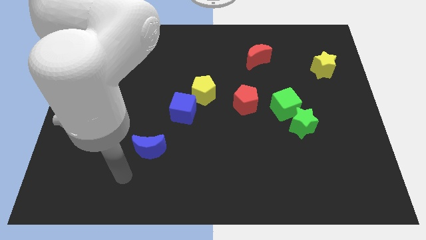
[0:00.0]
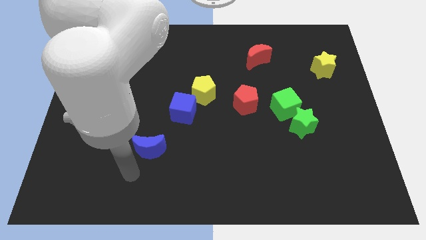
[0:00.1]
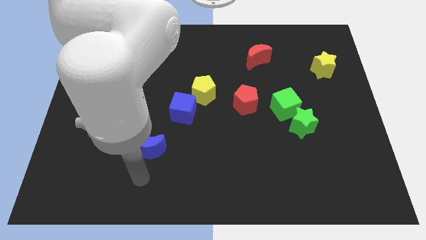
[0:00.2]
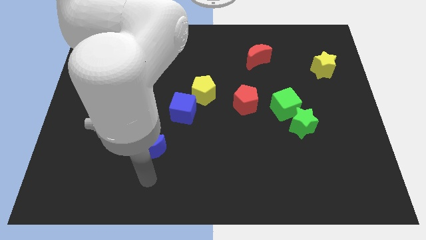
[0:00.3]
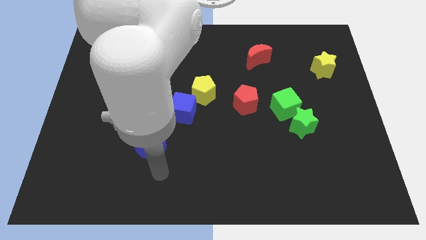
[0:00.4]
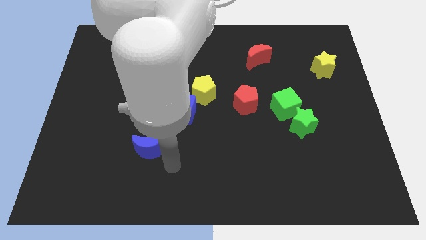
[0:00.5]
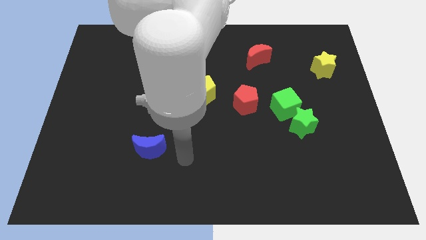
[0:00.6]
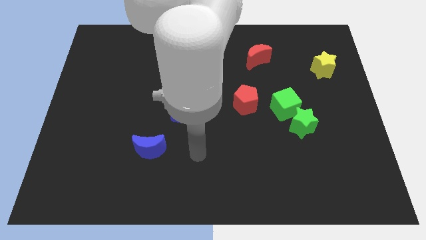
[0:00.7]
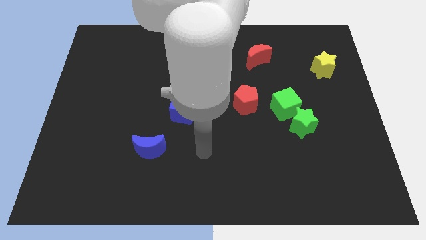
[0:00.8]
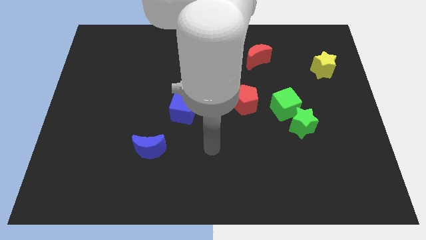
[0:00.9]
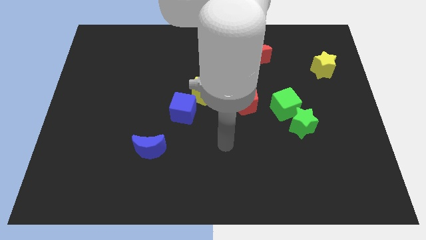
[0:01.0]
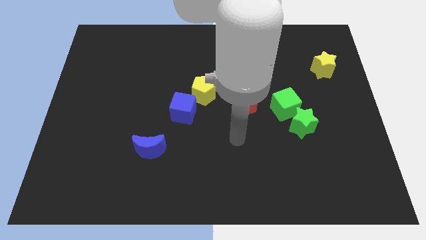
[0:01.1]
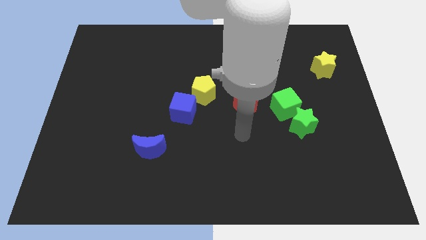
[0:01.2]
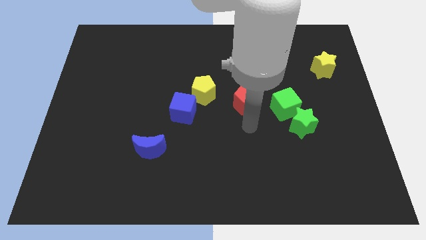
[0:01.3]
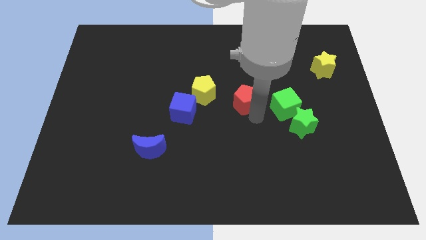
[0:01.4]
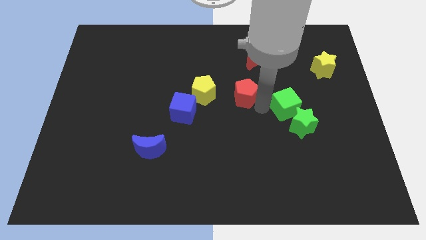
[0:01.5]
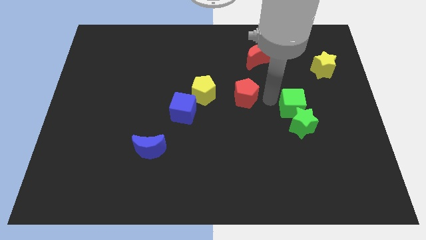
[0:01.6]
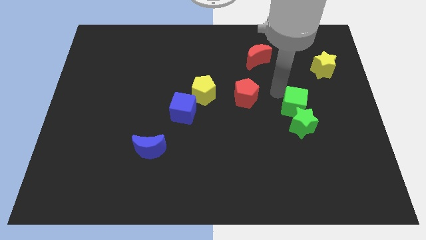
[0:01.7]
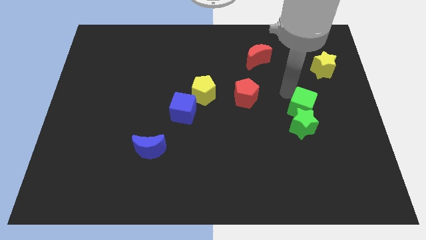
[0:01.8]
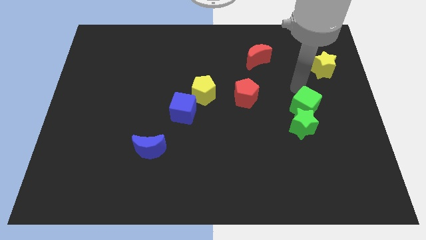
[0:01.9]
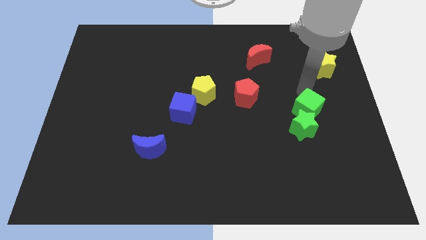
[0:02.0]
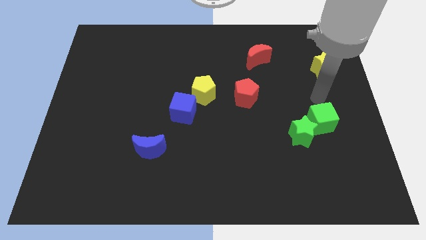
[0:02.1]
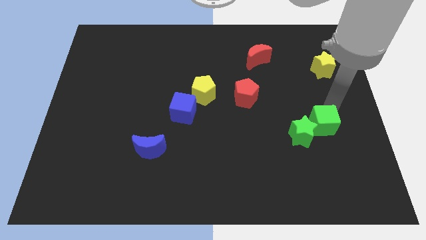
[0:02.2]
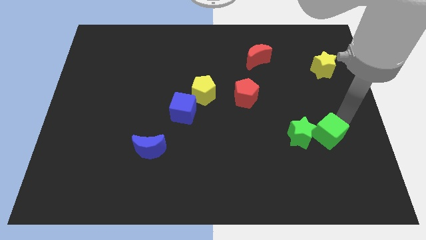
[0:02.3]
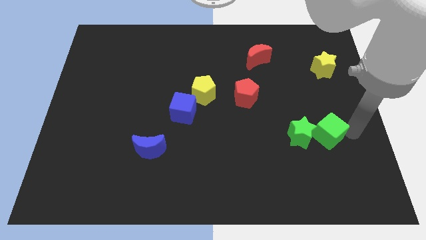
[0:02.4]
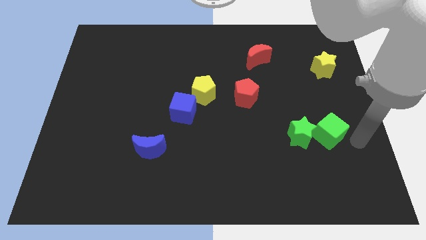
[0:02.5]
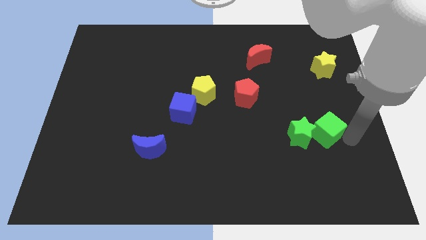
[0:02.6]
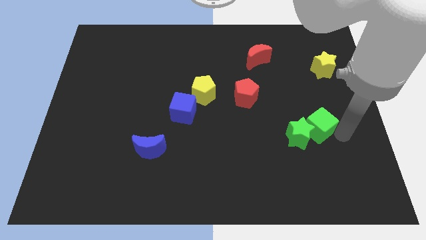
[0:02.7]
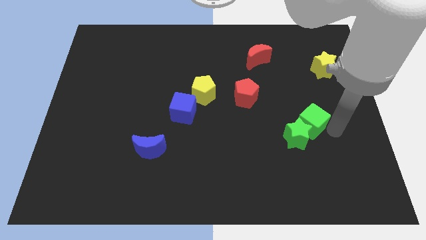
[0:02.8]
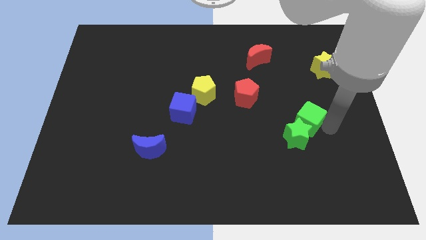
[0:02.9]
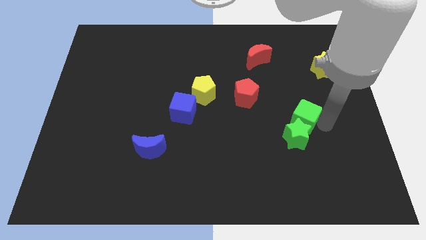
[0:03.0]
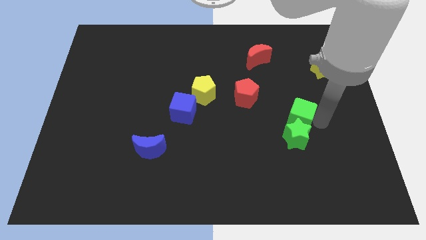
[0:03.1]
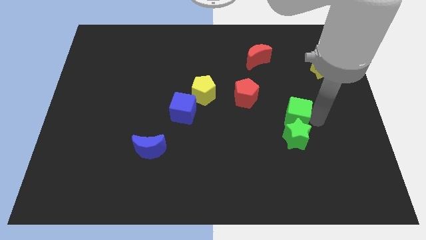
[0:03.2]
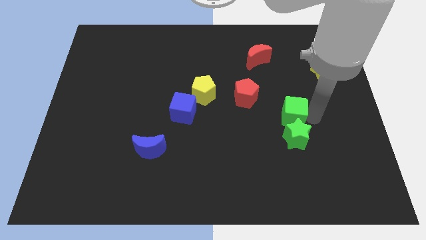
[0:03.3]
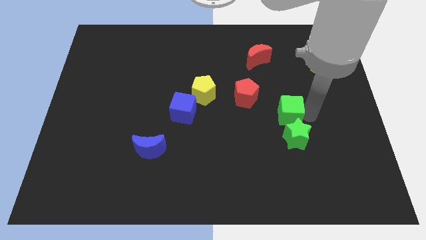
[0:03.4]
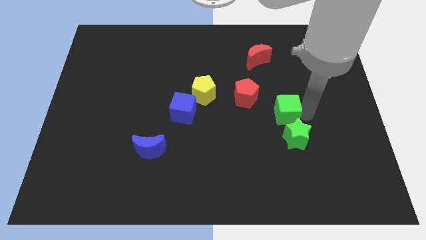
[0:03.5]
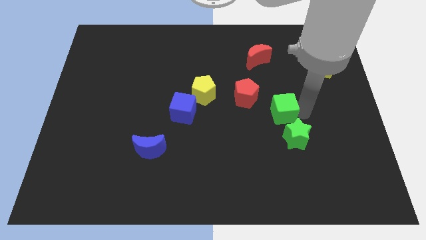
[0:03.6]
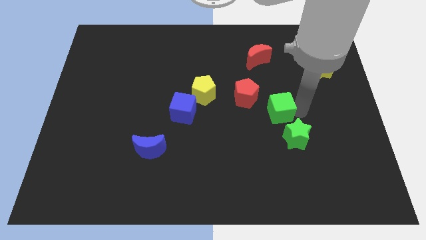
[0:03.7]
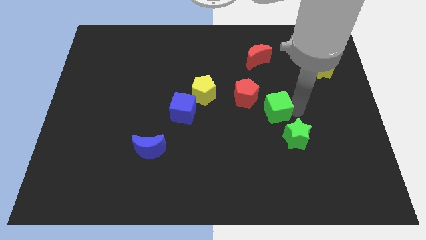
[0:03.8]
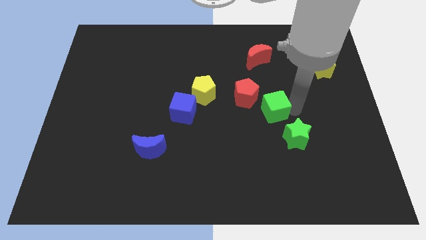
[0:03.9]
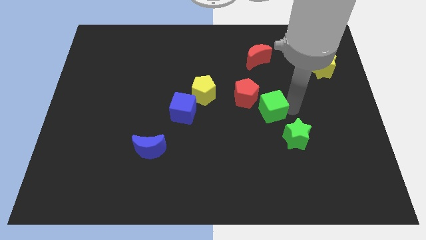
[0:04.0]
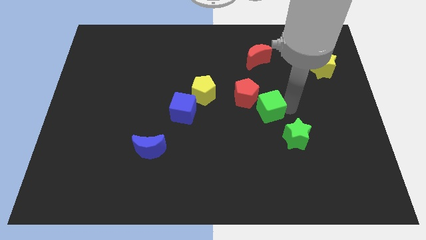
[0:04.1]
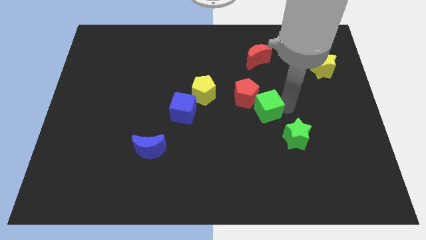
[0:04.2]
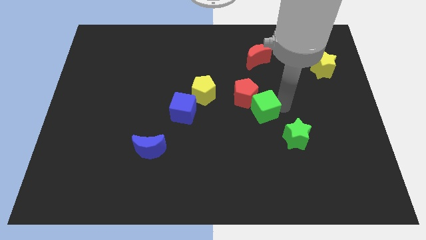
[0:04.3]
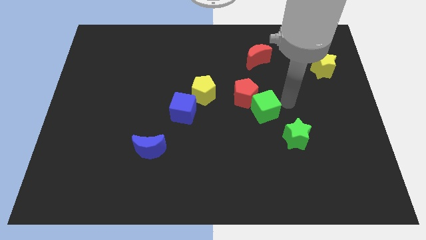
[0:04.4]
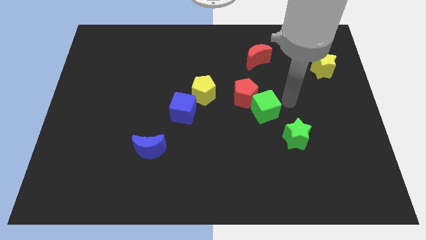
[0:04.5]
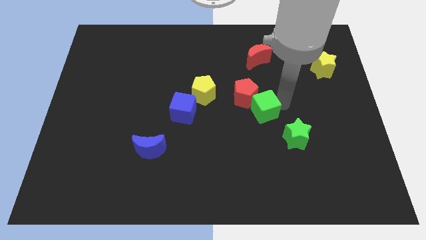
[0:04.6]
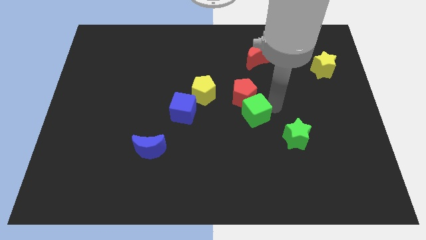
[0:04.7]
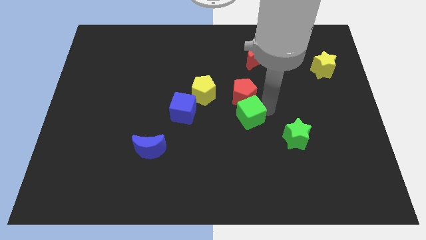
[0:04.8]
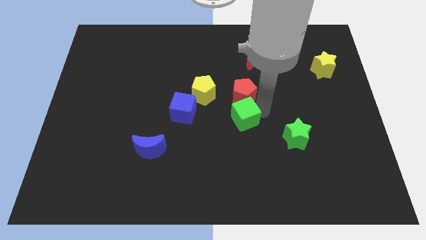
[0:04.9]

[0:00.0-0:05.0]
push the green cube to the bottom right side of the yellow pentagon

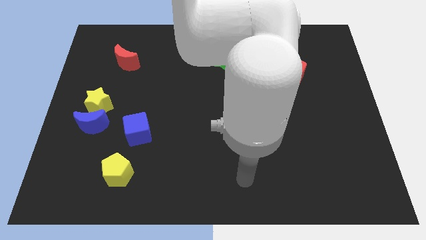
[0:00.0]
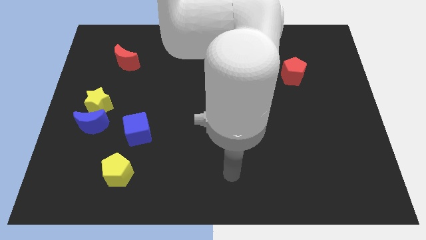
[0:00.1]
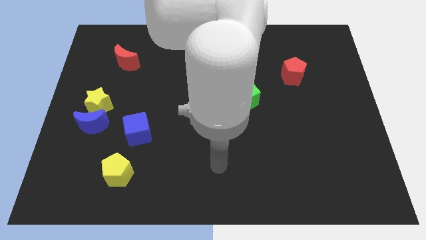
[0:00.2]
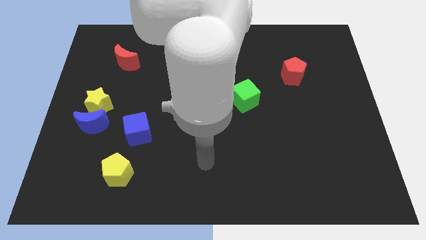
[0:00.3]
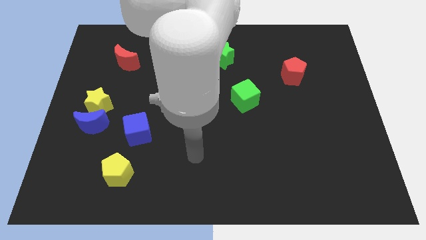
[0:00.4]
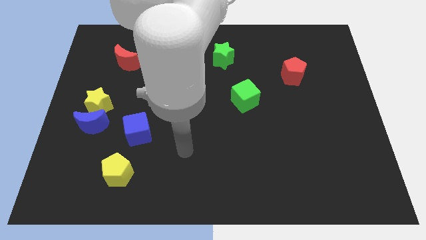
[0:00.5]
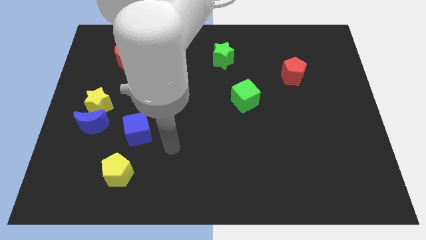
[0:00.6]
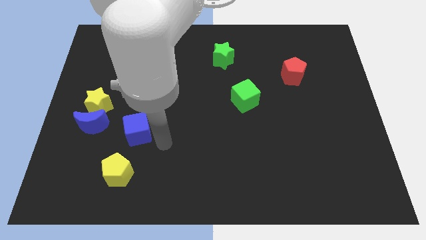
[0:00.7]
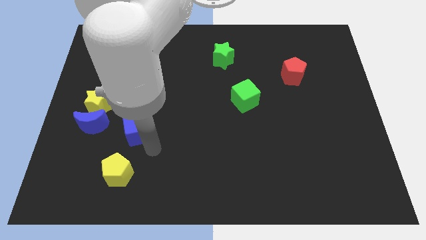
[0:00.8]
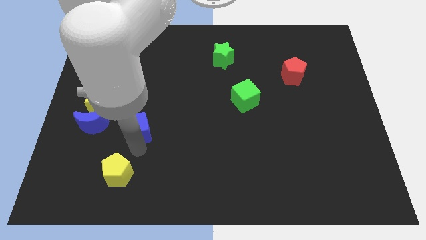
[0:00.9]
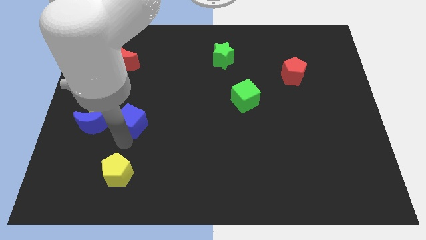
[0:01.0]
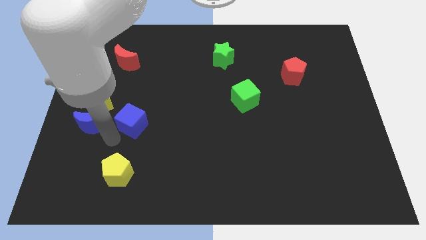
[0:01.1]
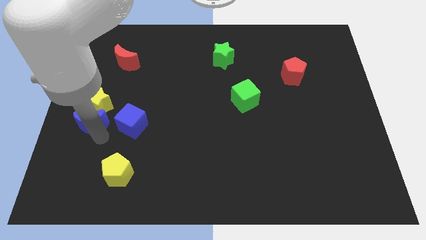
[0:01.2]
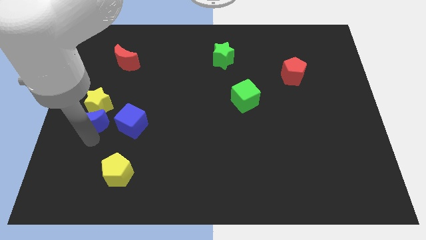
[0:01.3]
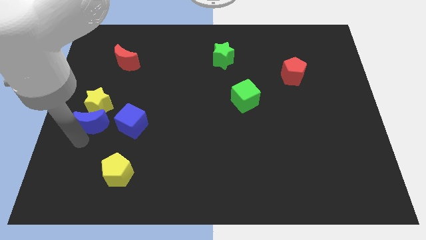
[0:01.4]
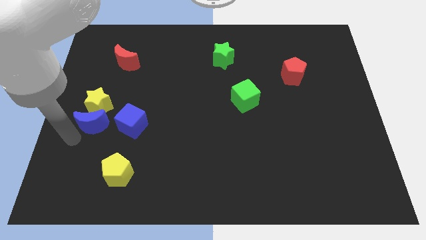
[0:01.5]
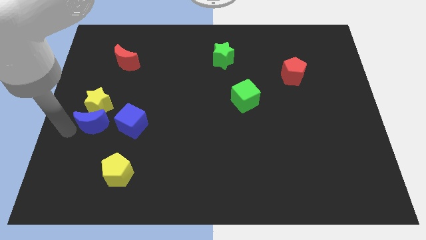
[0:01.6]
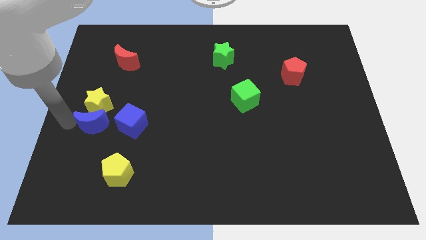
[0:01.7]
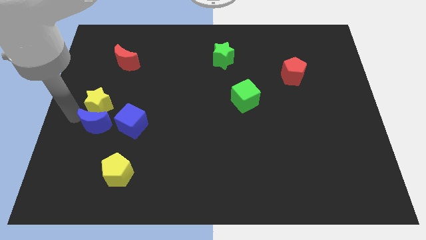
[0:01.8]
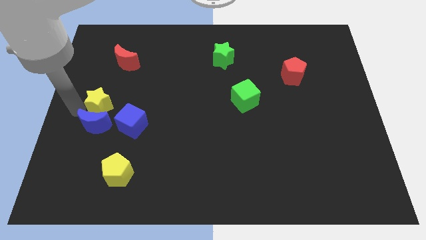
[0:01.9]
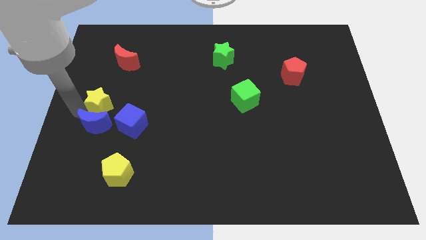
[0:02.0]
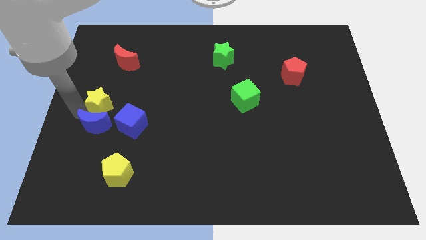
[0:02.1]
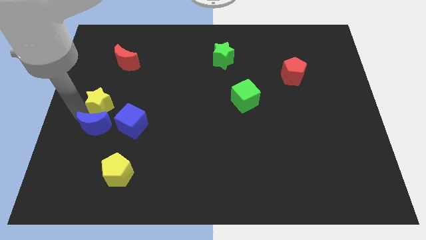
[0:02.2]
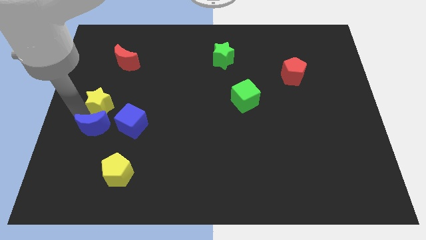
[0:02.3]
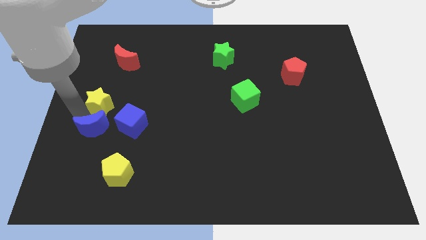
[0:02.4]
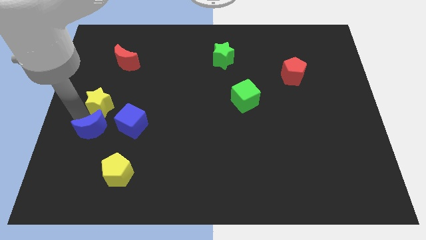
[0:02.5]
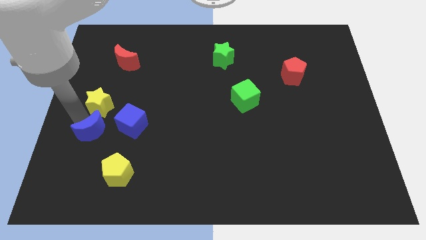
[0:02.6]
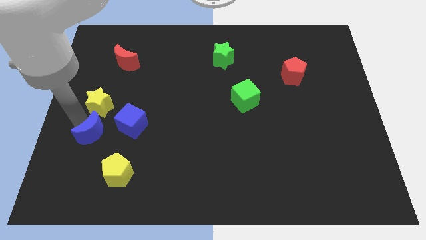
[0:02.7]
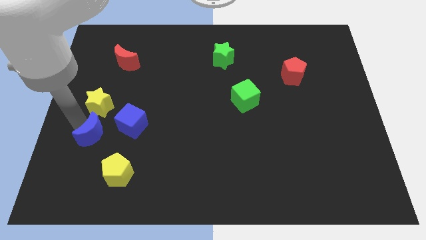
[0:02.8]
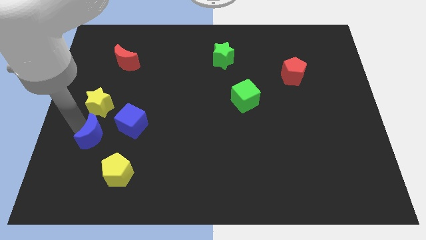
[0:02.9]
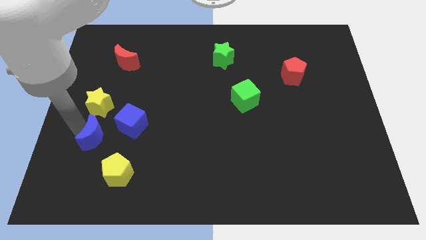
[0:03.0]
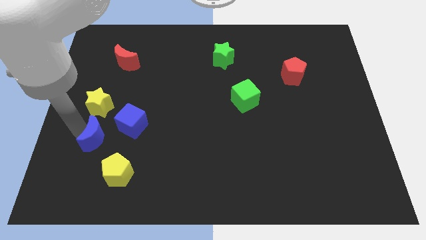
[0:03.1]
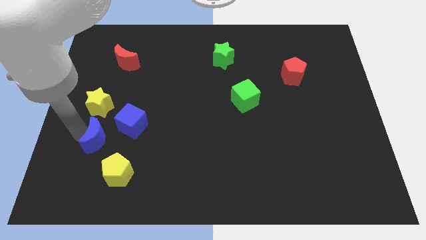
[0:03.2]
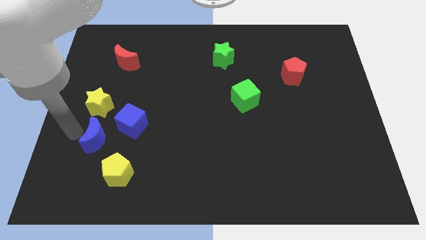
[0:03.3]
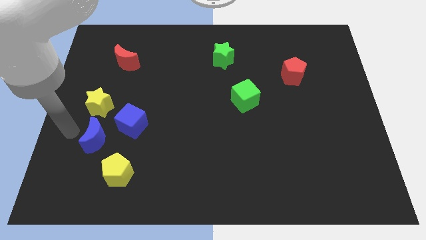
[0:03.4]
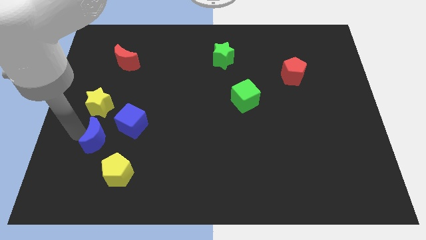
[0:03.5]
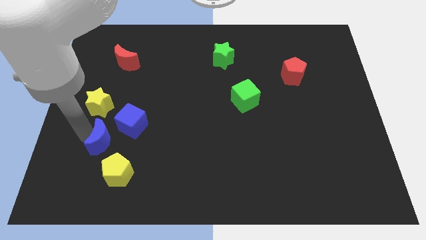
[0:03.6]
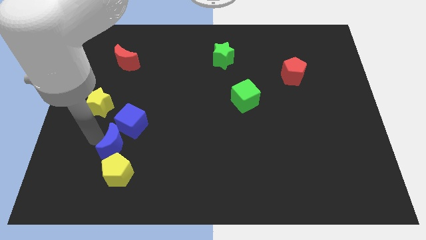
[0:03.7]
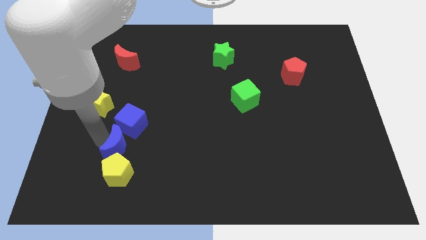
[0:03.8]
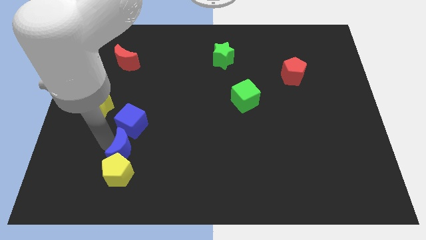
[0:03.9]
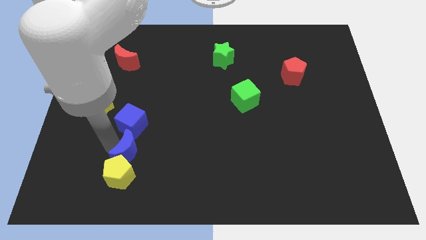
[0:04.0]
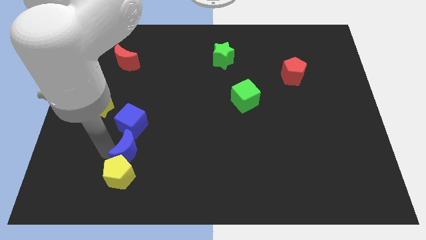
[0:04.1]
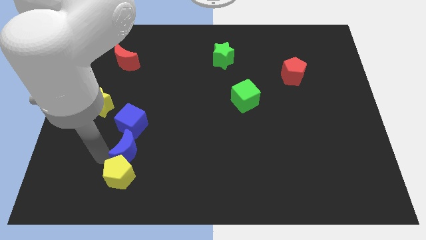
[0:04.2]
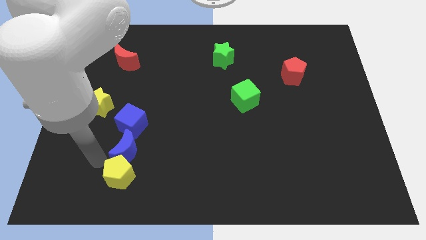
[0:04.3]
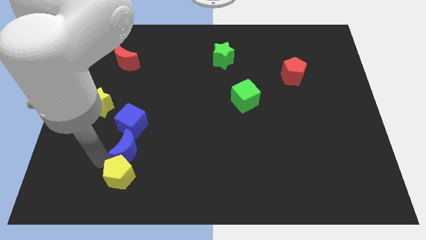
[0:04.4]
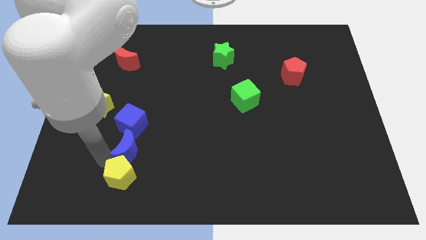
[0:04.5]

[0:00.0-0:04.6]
slide the blue moon diagonally down and to the right of the blue cube
